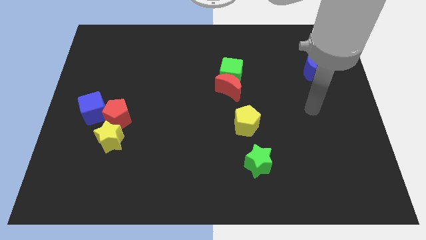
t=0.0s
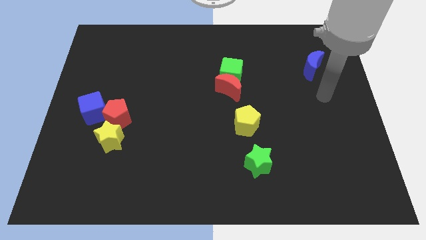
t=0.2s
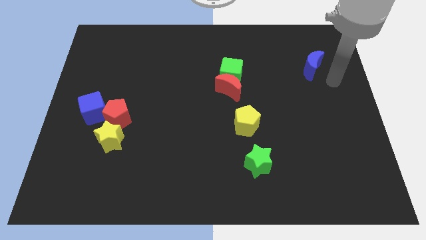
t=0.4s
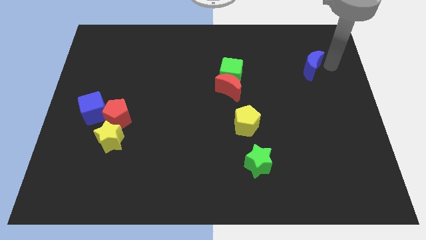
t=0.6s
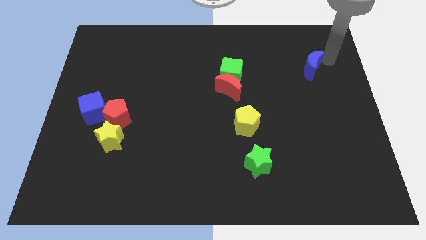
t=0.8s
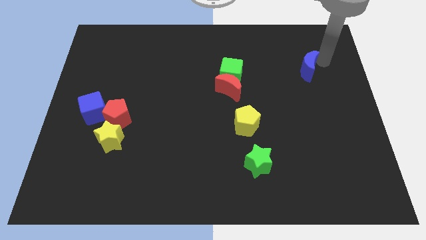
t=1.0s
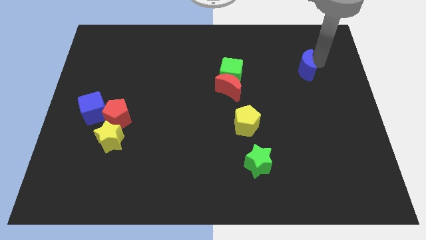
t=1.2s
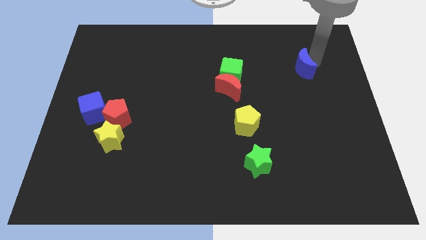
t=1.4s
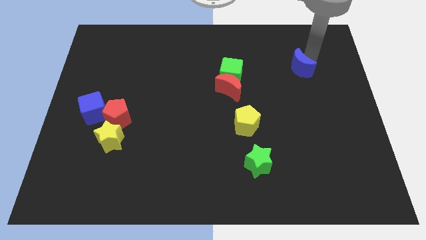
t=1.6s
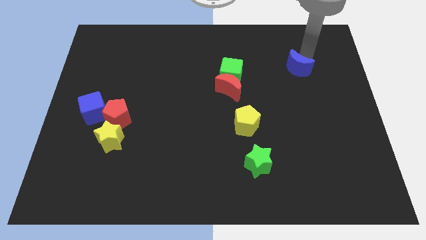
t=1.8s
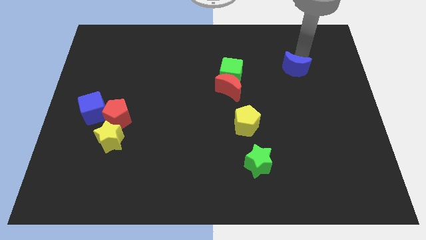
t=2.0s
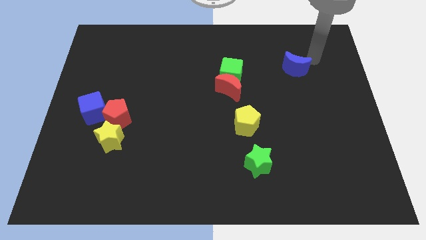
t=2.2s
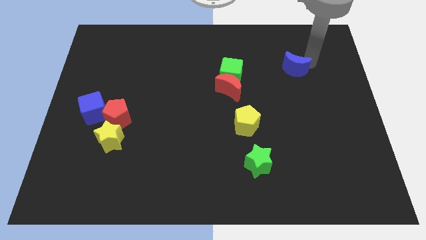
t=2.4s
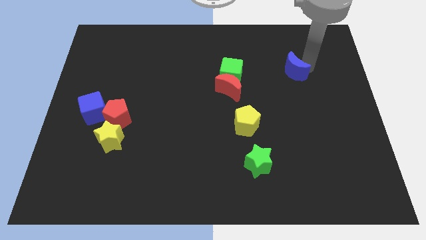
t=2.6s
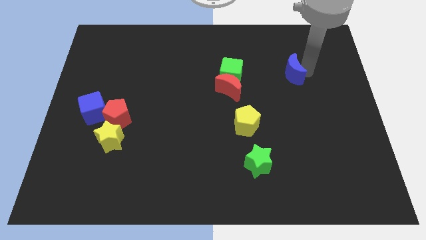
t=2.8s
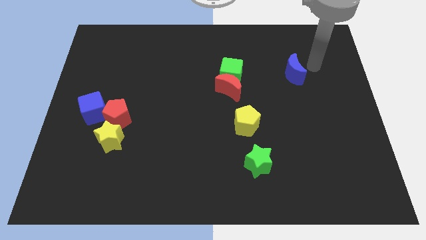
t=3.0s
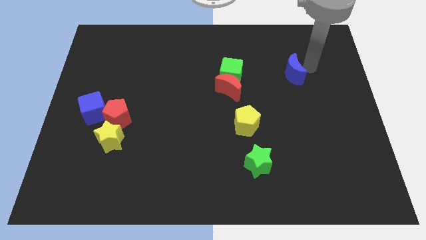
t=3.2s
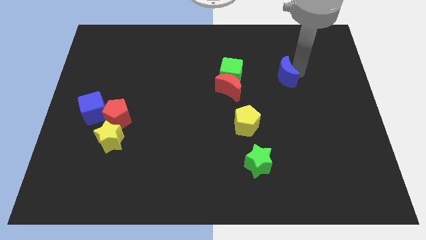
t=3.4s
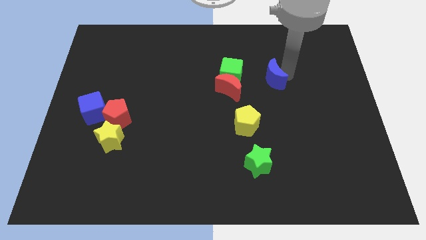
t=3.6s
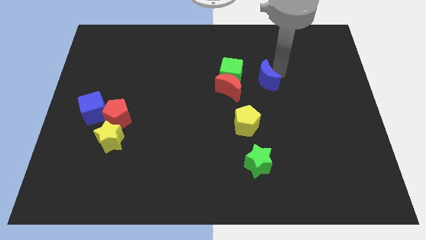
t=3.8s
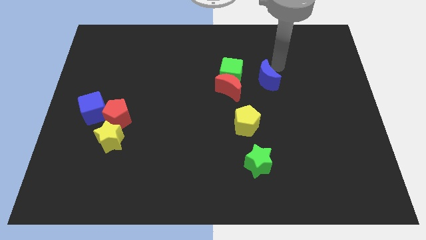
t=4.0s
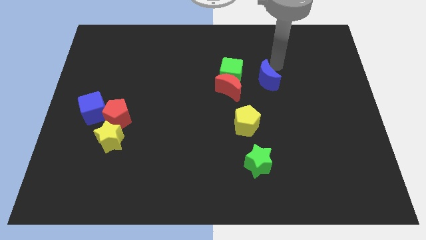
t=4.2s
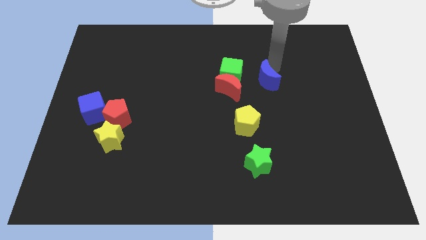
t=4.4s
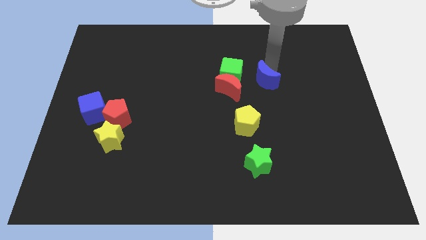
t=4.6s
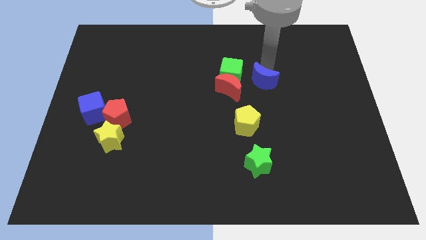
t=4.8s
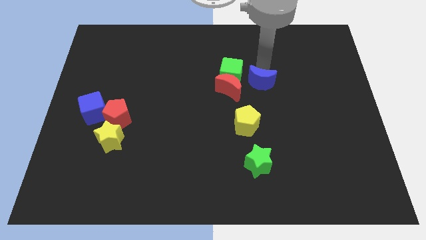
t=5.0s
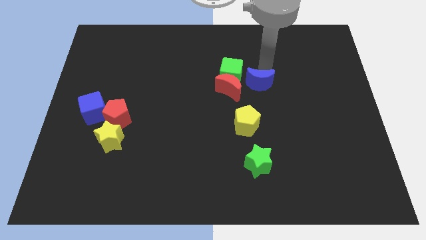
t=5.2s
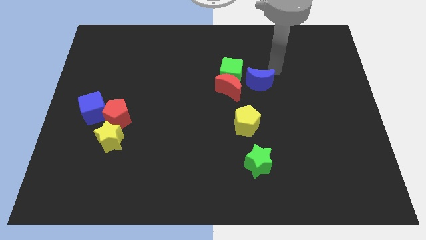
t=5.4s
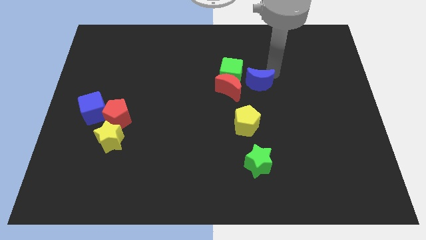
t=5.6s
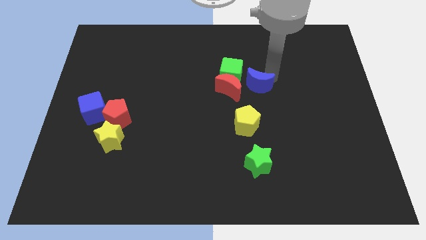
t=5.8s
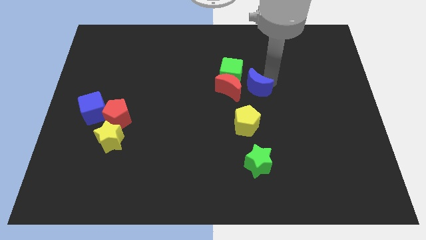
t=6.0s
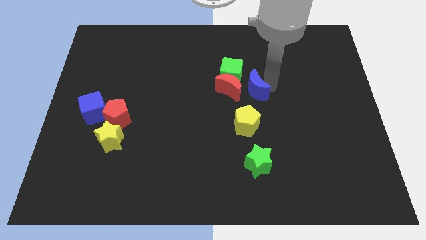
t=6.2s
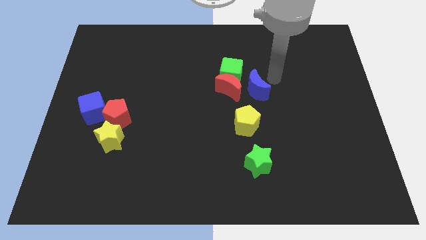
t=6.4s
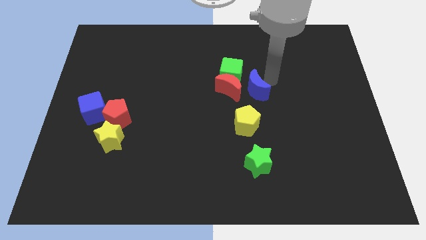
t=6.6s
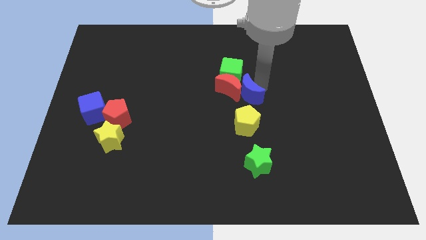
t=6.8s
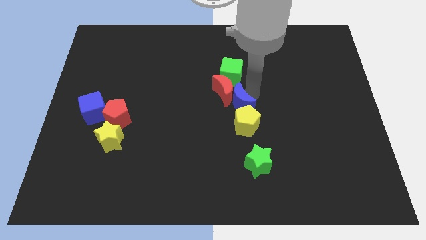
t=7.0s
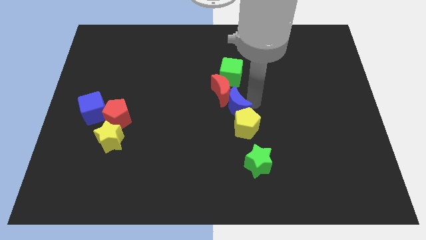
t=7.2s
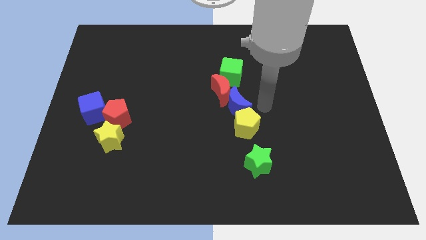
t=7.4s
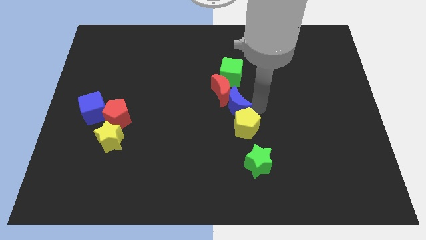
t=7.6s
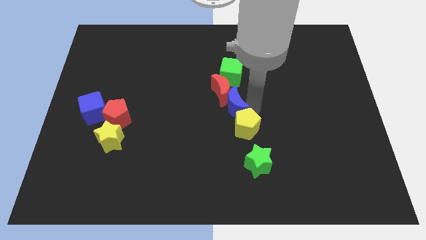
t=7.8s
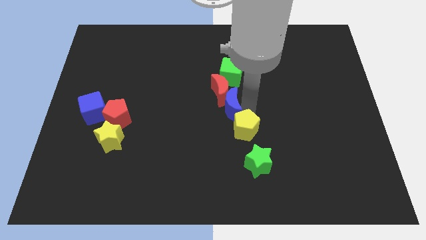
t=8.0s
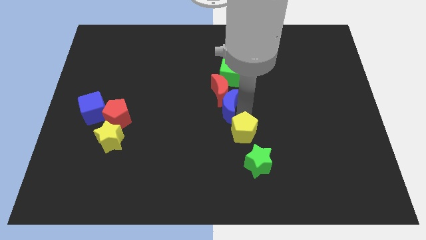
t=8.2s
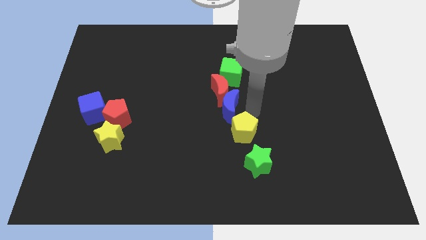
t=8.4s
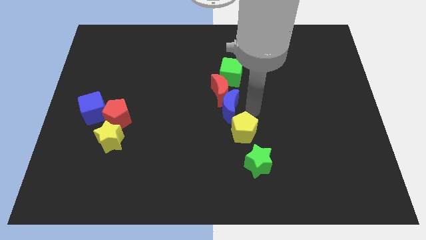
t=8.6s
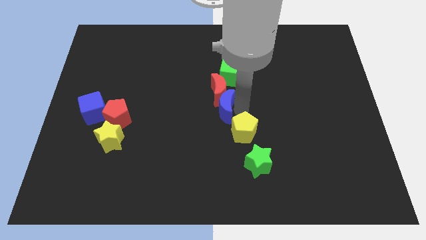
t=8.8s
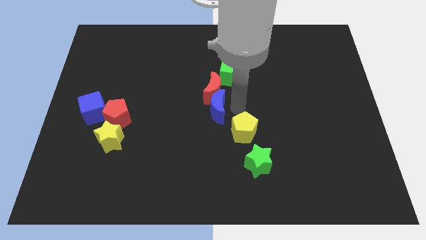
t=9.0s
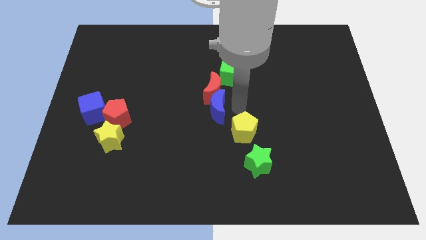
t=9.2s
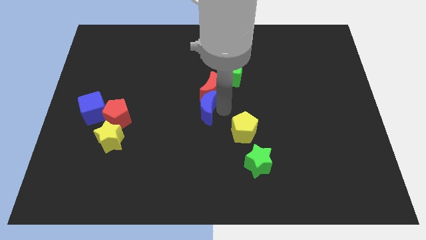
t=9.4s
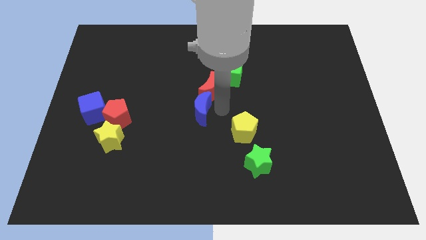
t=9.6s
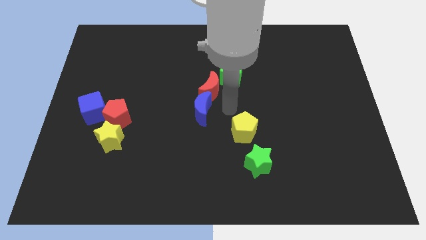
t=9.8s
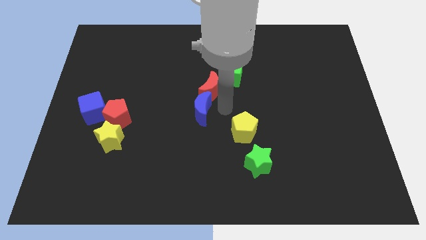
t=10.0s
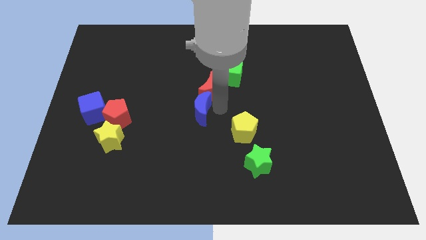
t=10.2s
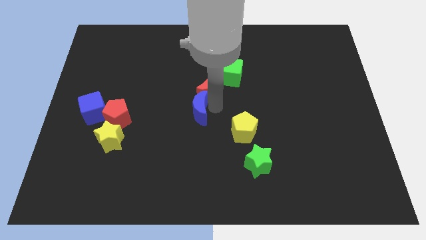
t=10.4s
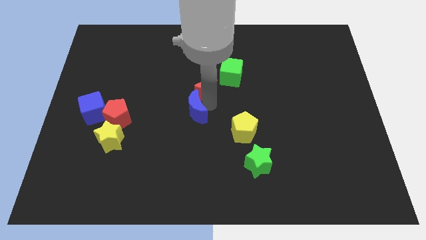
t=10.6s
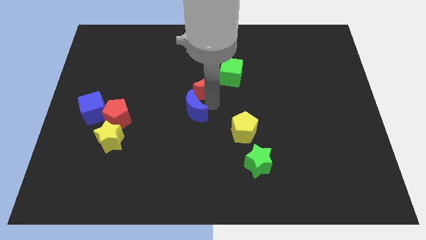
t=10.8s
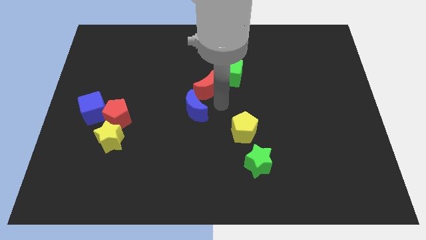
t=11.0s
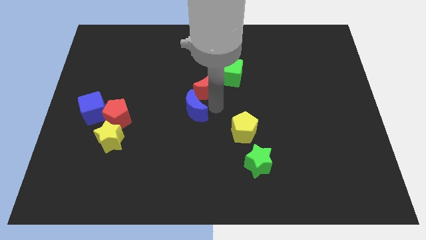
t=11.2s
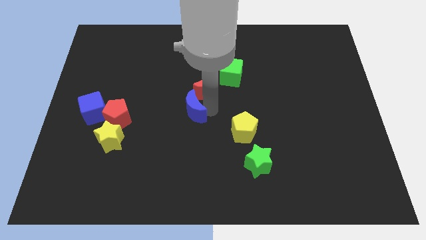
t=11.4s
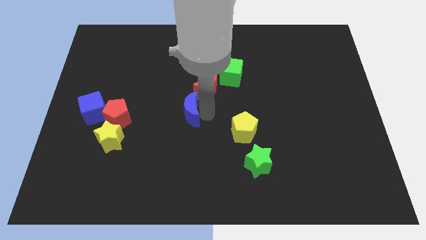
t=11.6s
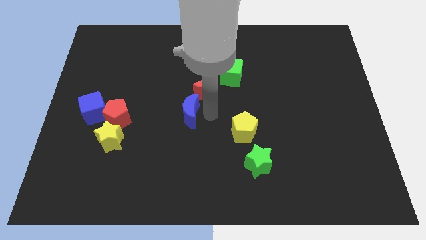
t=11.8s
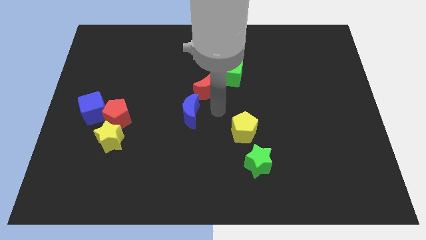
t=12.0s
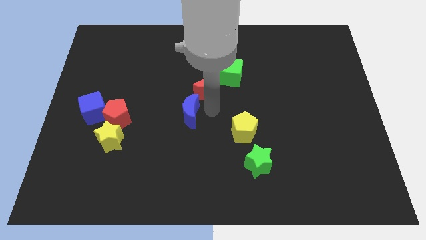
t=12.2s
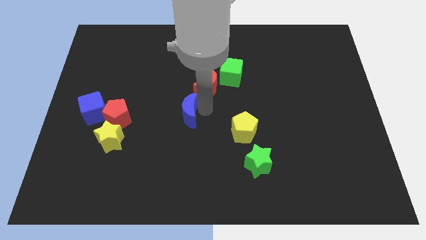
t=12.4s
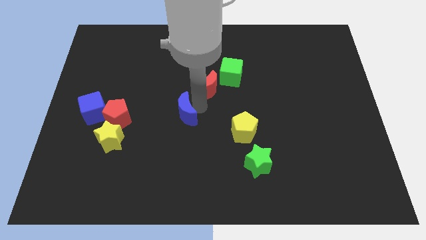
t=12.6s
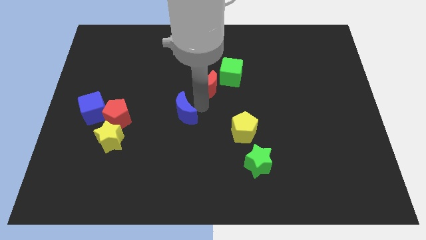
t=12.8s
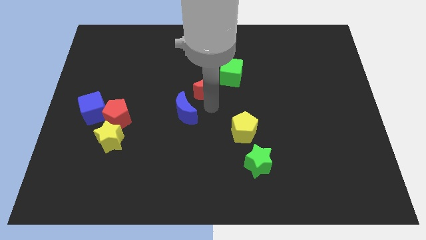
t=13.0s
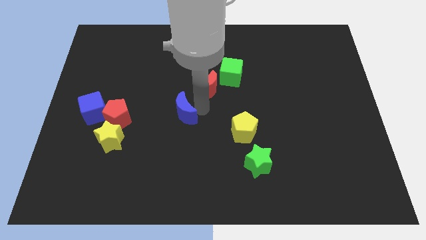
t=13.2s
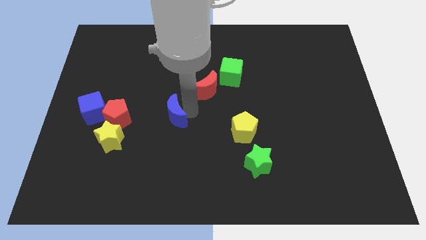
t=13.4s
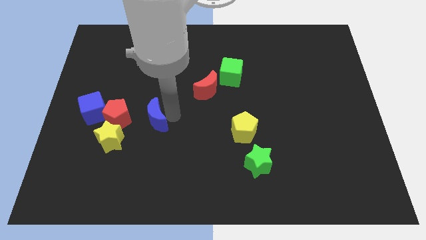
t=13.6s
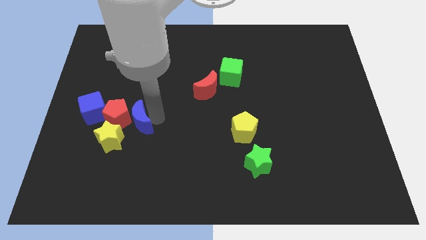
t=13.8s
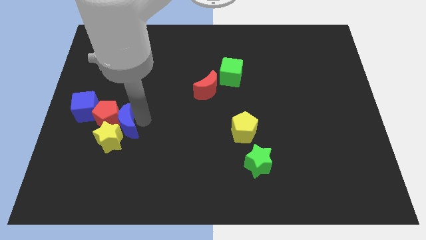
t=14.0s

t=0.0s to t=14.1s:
move the blue moon towards the yellow star
